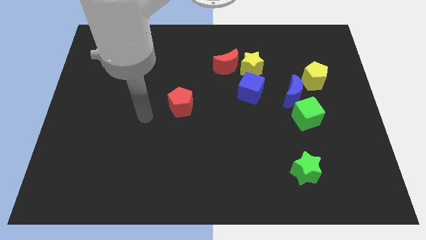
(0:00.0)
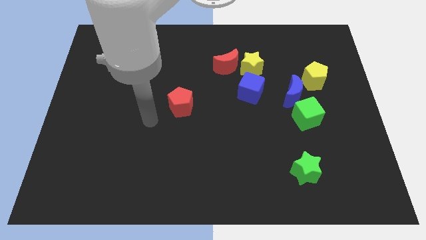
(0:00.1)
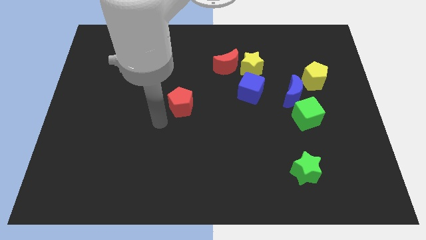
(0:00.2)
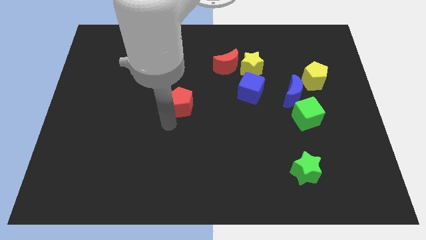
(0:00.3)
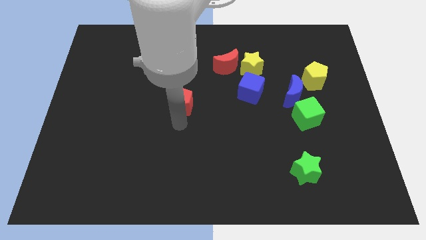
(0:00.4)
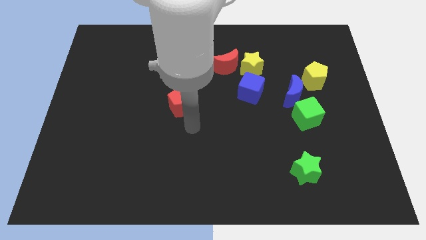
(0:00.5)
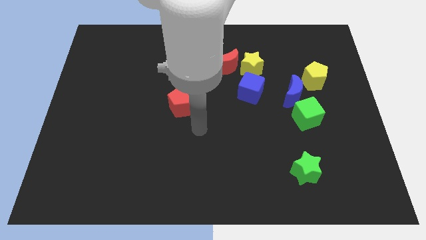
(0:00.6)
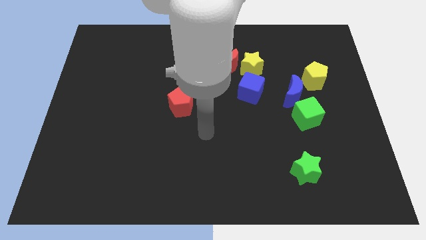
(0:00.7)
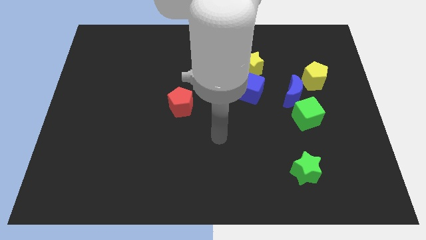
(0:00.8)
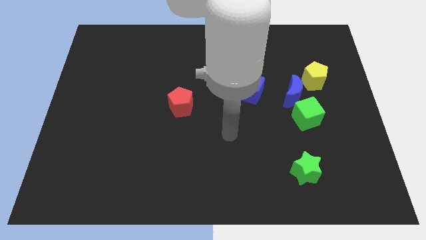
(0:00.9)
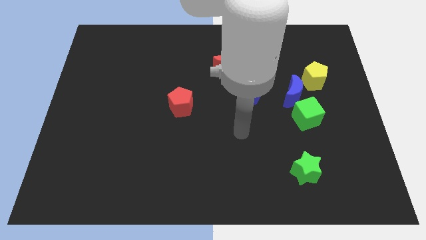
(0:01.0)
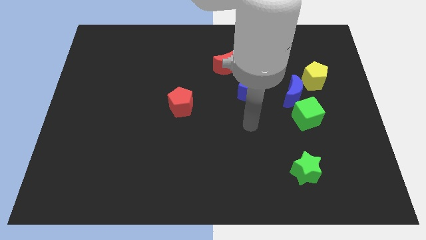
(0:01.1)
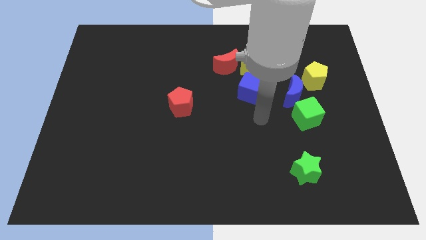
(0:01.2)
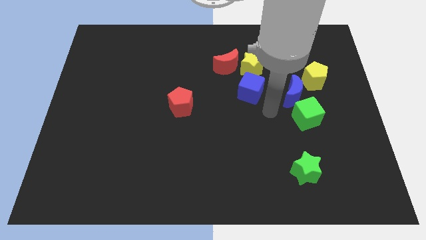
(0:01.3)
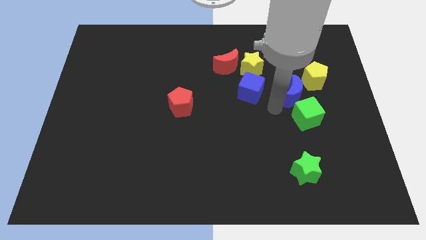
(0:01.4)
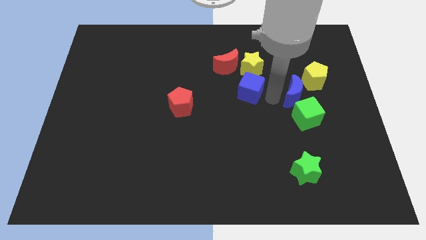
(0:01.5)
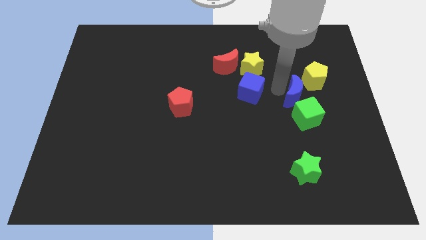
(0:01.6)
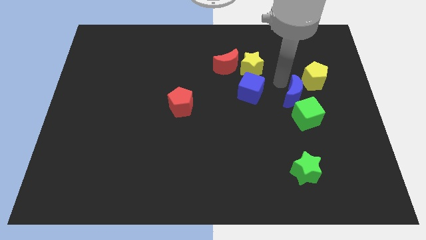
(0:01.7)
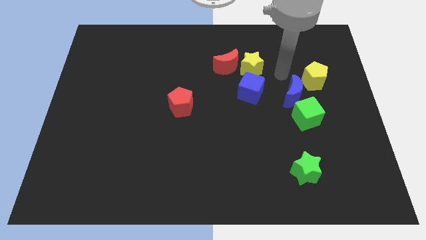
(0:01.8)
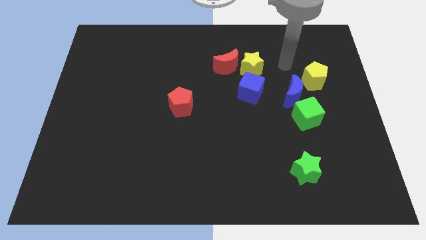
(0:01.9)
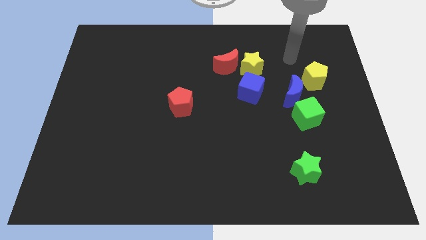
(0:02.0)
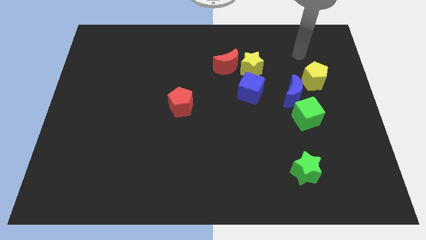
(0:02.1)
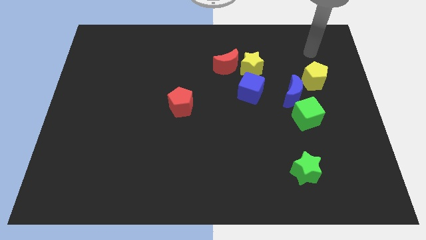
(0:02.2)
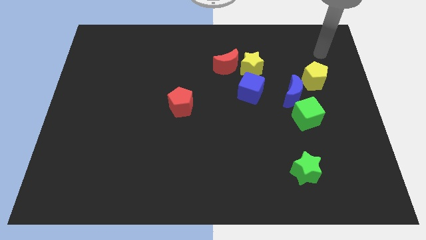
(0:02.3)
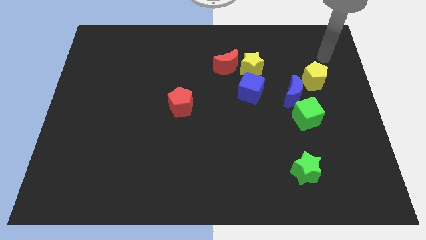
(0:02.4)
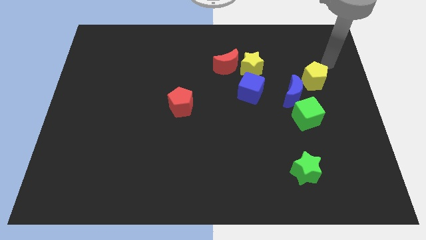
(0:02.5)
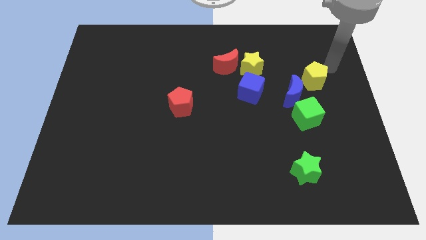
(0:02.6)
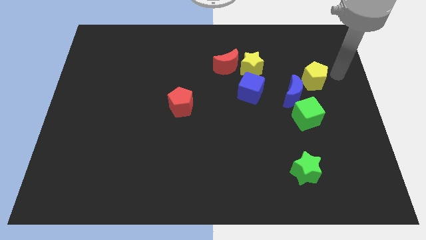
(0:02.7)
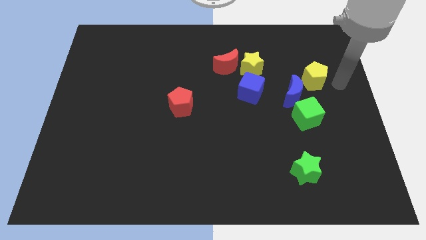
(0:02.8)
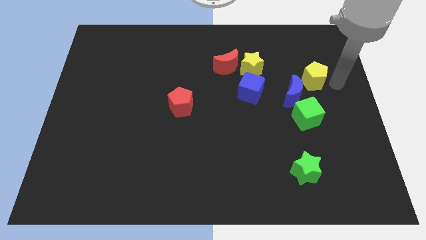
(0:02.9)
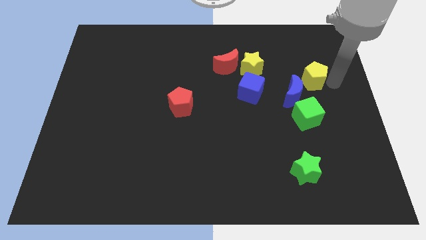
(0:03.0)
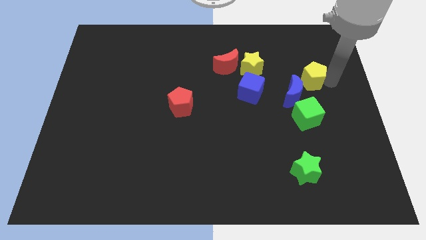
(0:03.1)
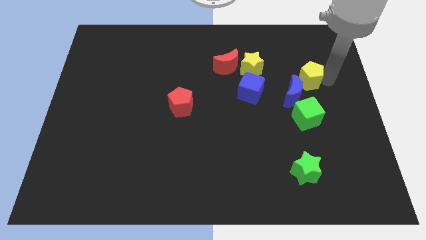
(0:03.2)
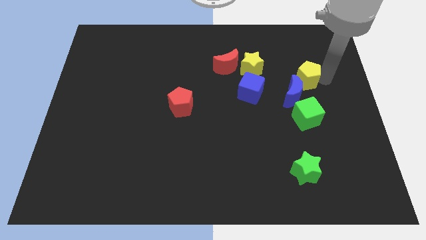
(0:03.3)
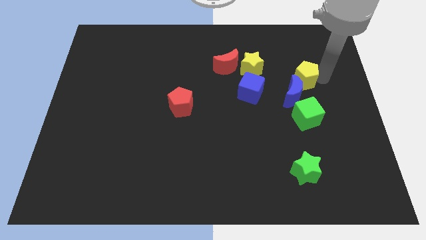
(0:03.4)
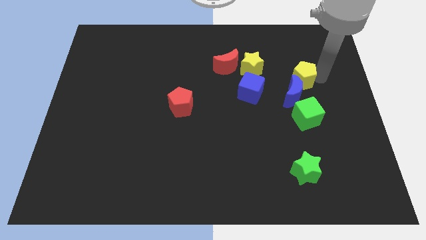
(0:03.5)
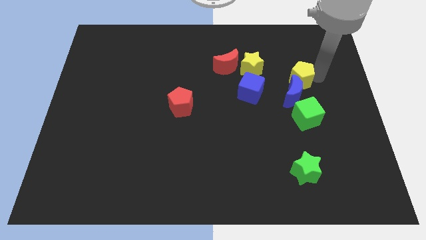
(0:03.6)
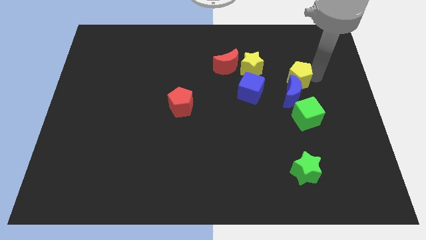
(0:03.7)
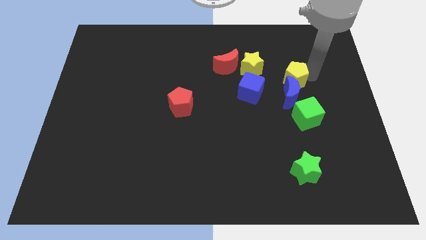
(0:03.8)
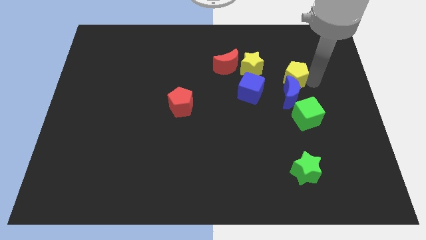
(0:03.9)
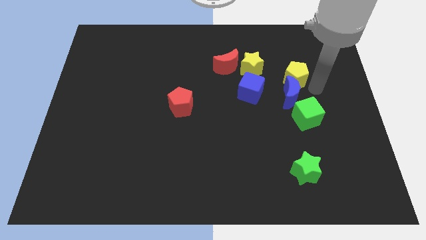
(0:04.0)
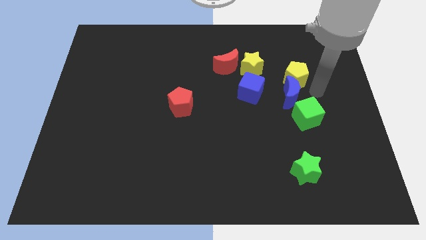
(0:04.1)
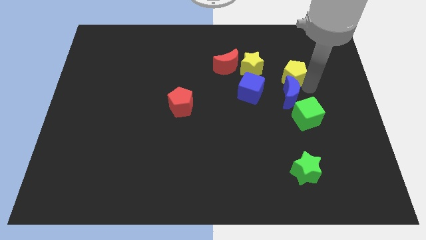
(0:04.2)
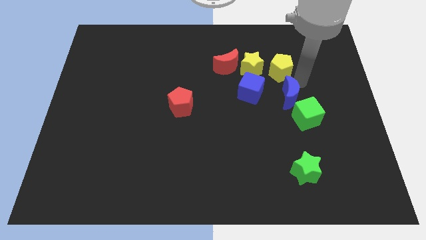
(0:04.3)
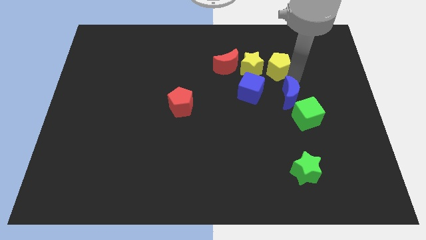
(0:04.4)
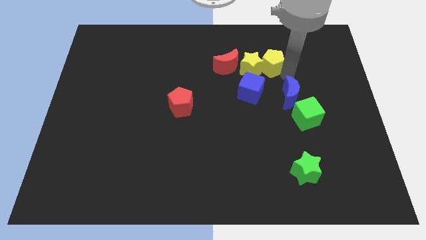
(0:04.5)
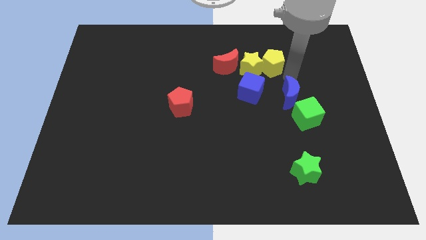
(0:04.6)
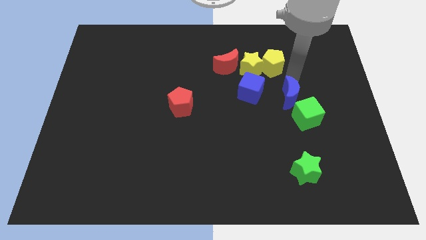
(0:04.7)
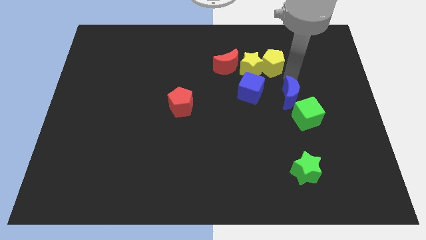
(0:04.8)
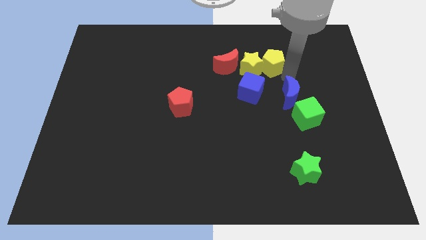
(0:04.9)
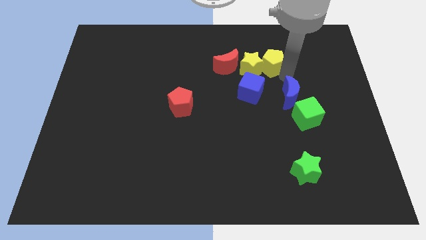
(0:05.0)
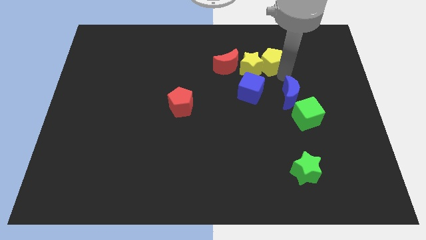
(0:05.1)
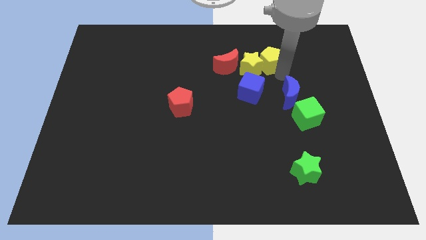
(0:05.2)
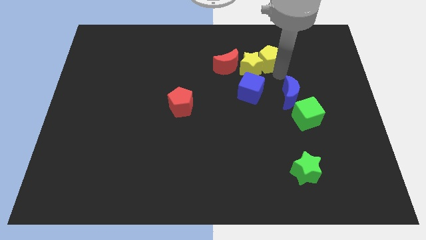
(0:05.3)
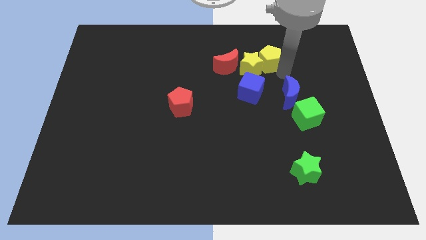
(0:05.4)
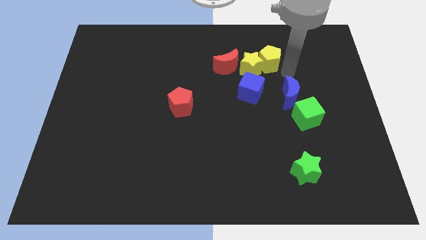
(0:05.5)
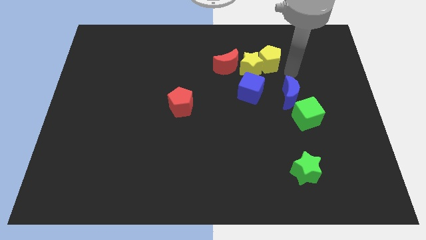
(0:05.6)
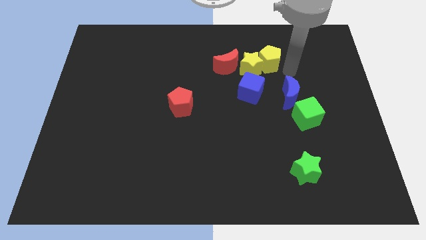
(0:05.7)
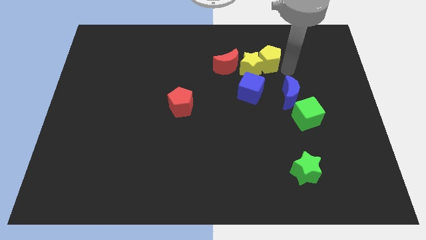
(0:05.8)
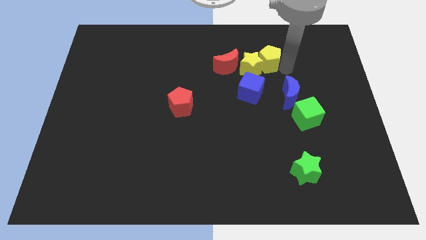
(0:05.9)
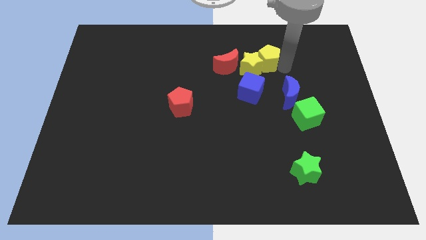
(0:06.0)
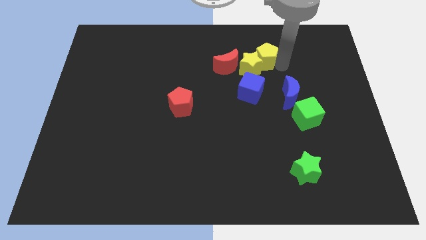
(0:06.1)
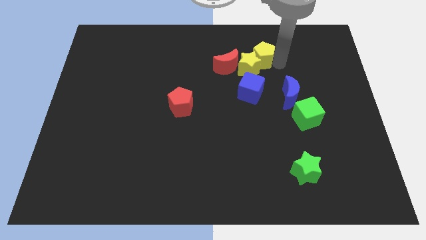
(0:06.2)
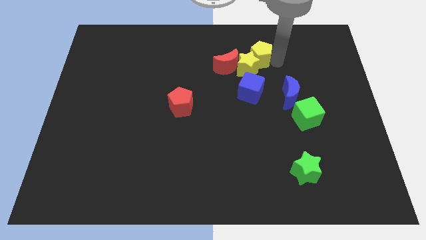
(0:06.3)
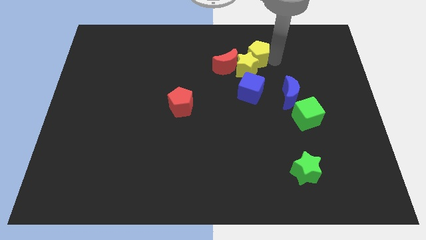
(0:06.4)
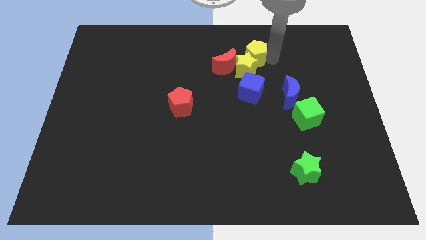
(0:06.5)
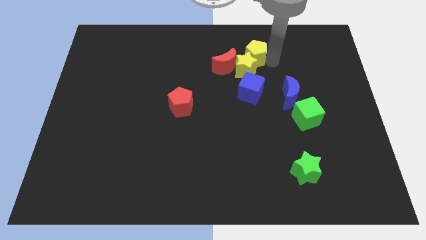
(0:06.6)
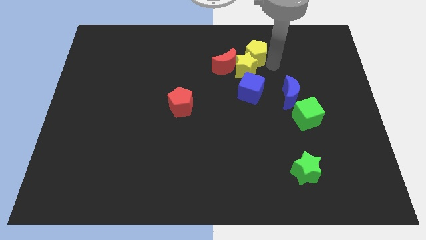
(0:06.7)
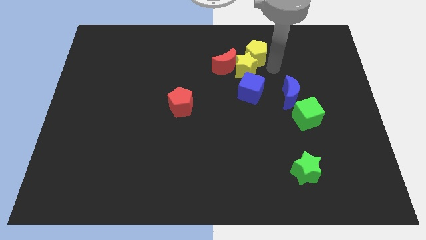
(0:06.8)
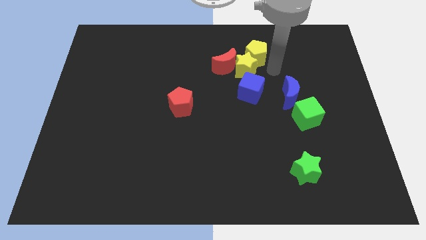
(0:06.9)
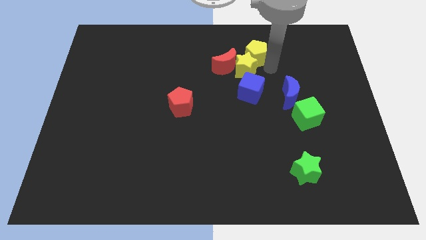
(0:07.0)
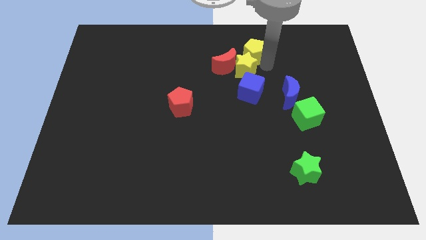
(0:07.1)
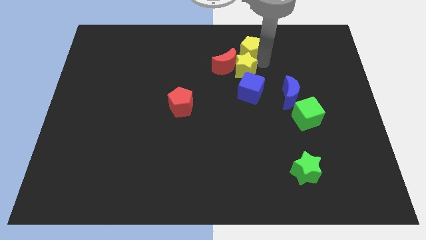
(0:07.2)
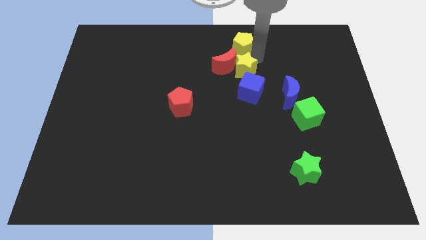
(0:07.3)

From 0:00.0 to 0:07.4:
move the yellow pentagon to the top
